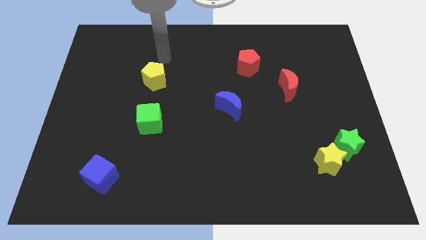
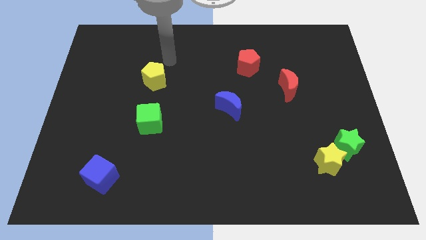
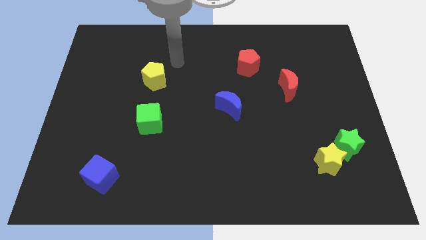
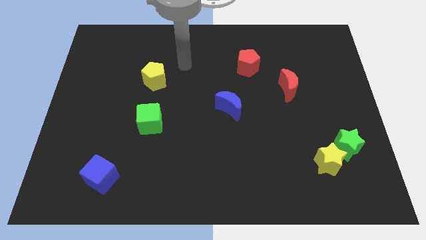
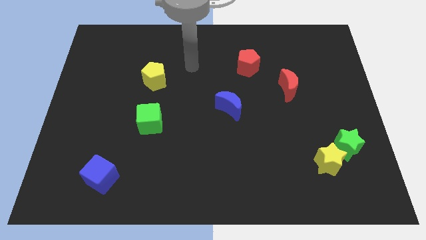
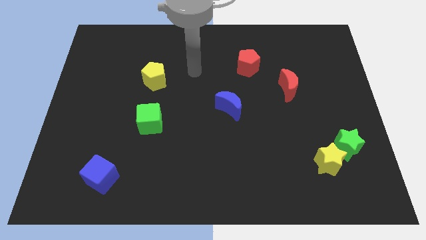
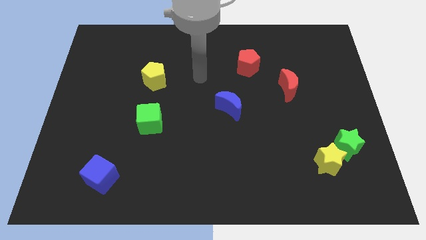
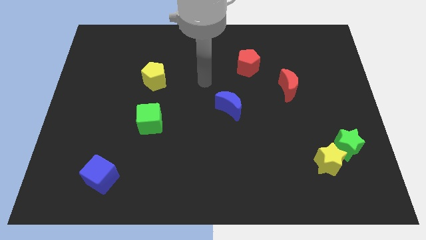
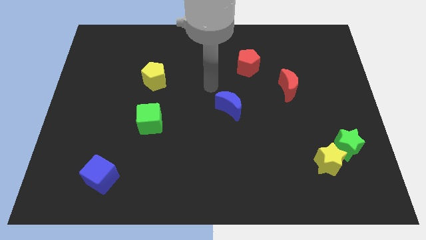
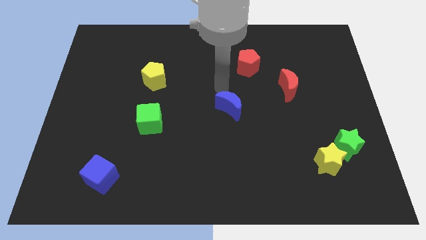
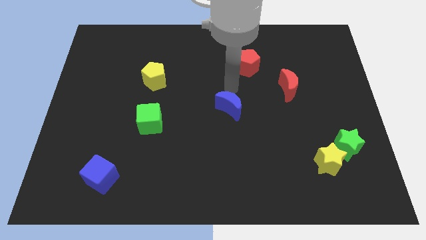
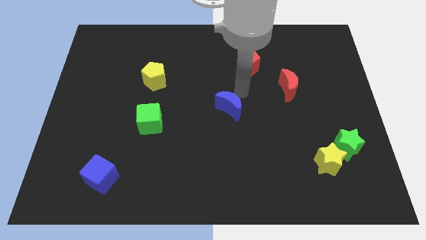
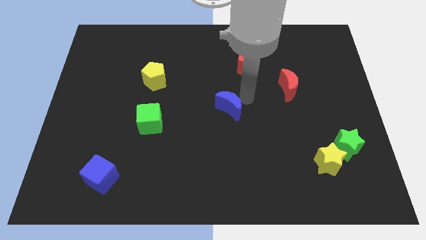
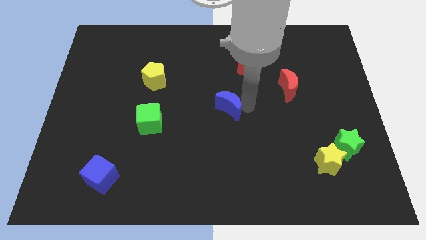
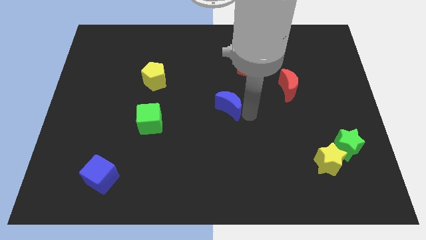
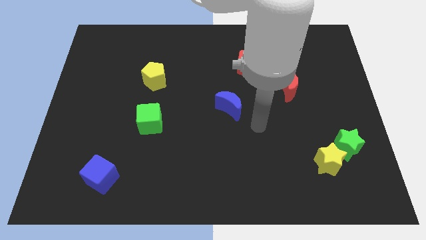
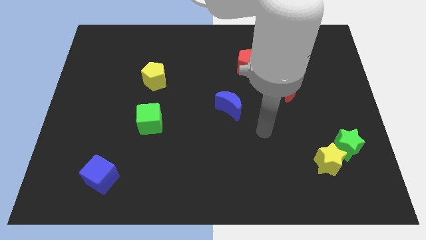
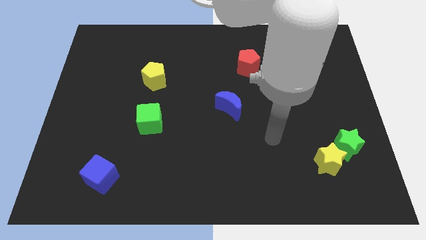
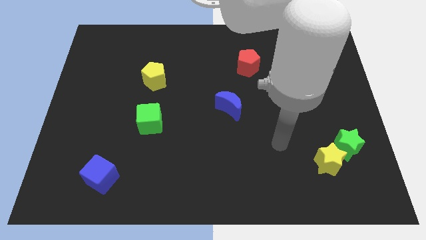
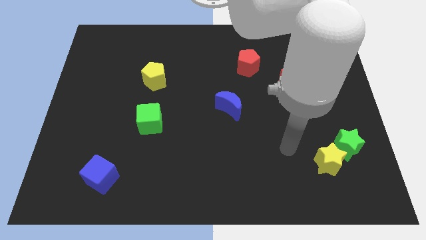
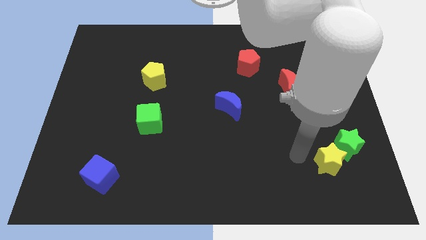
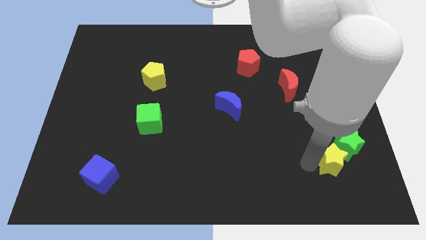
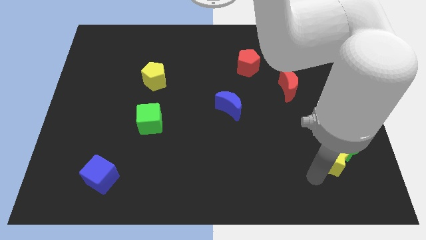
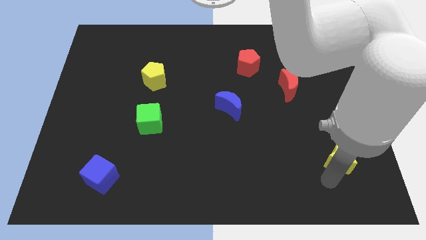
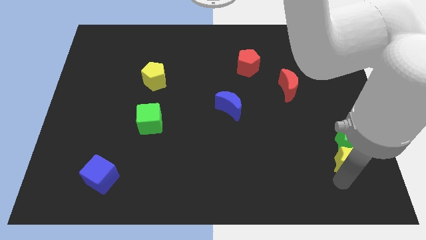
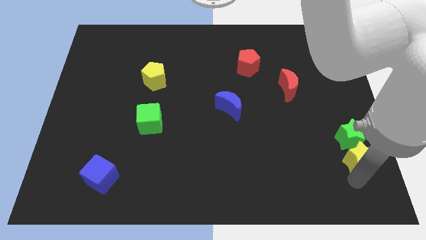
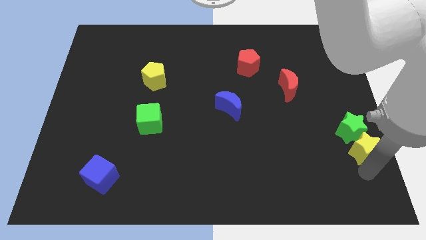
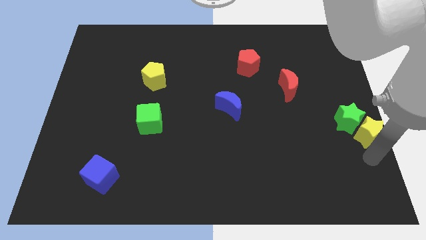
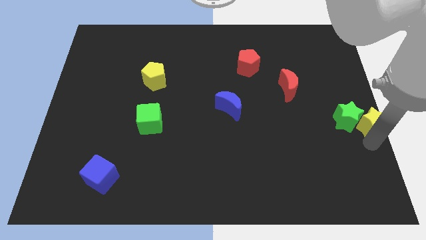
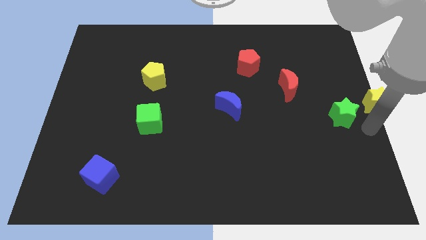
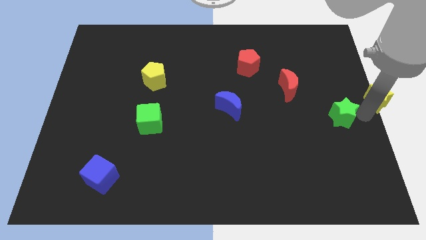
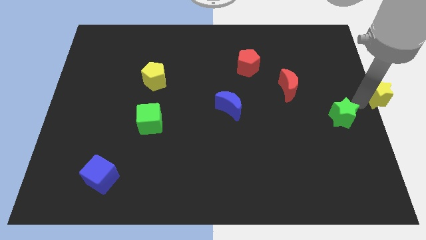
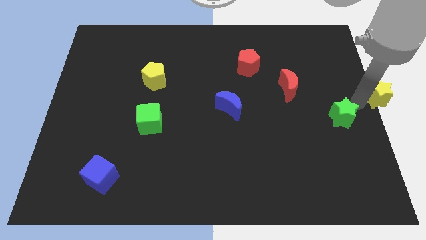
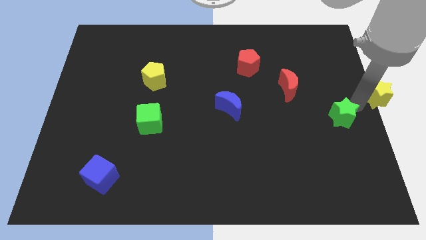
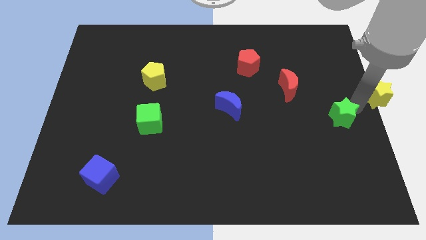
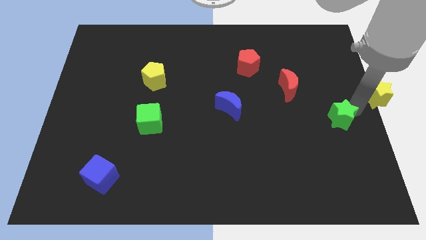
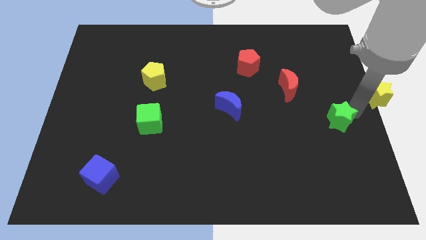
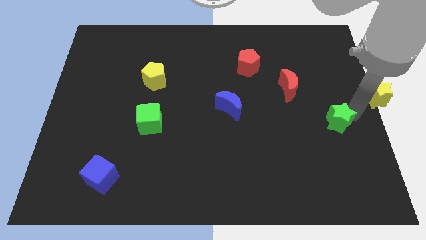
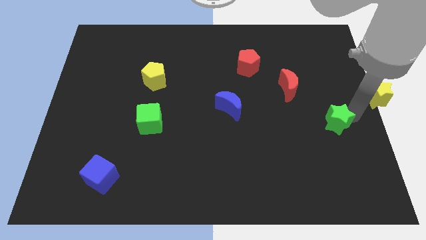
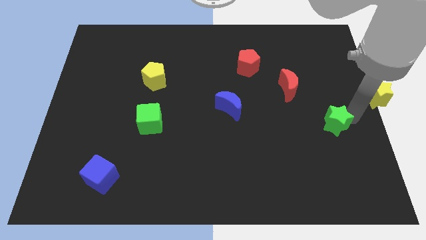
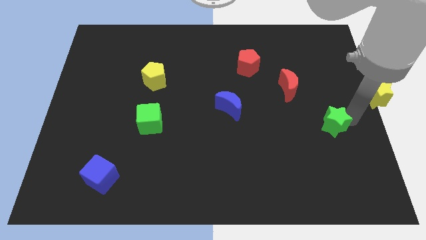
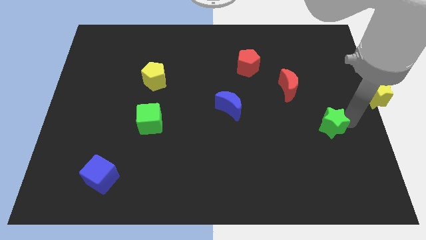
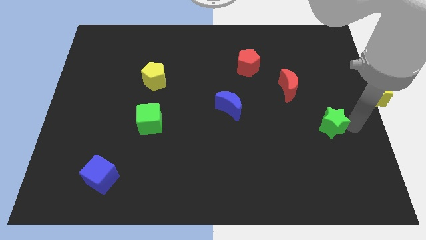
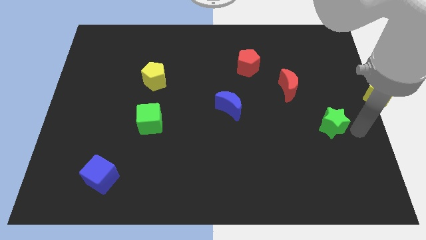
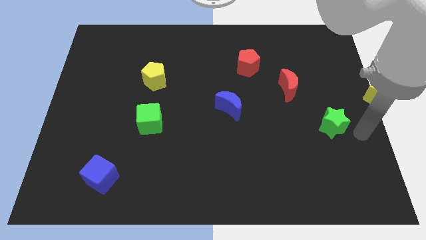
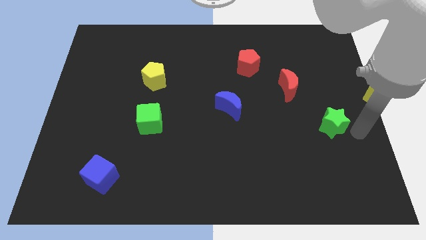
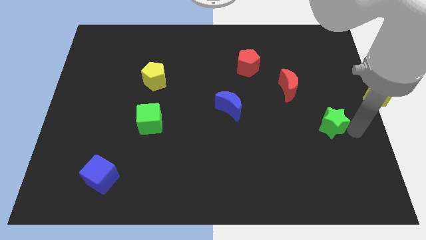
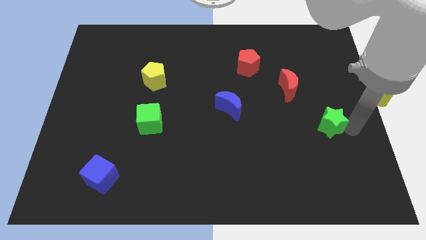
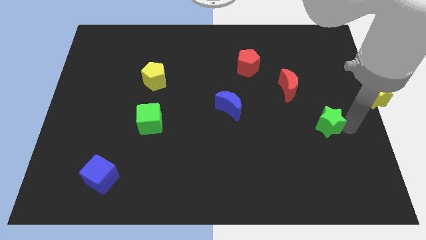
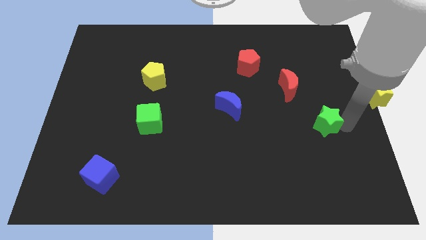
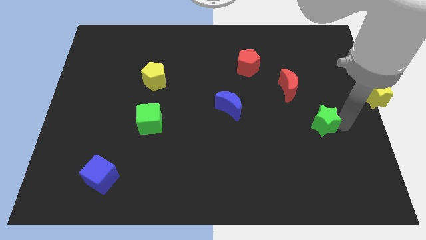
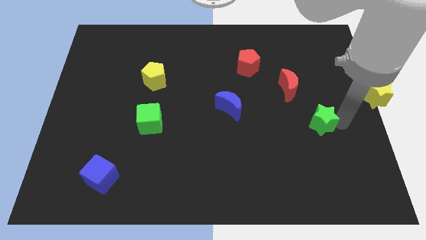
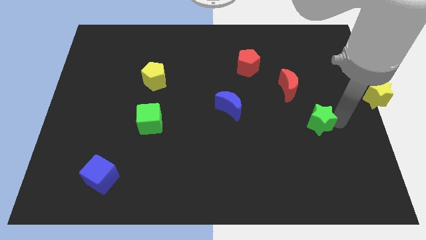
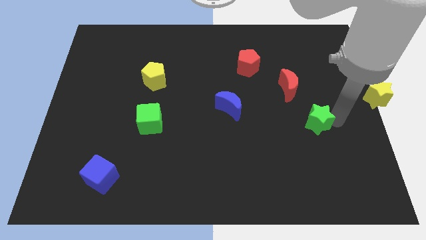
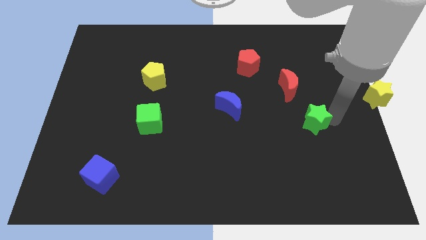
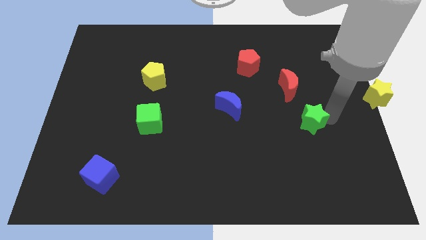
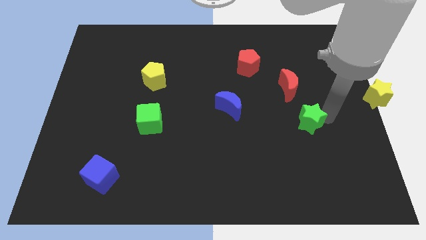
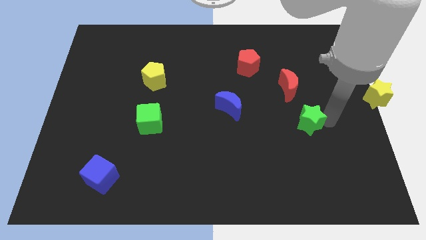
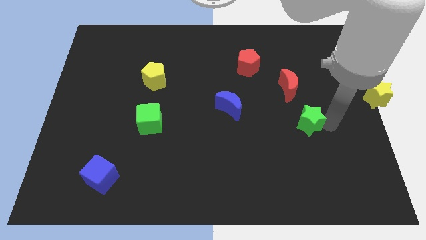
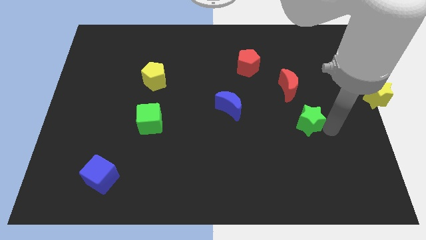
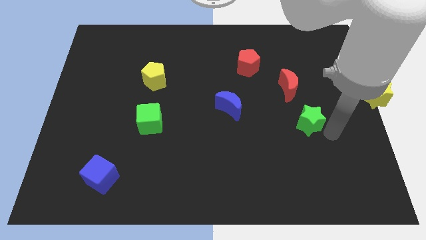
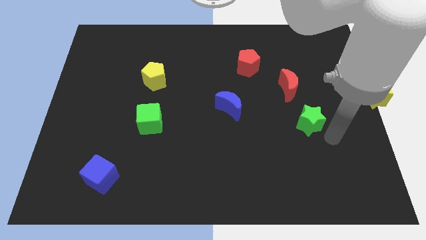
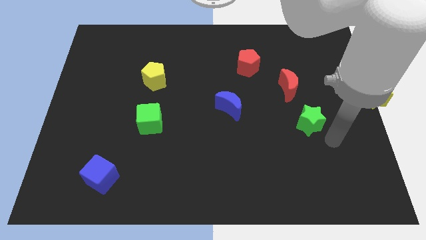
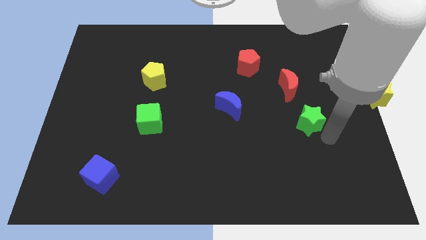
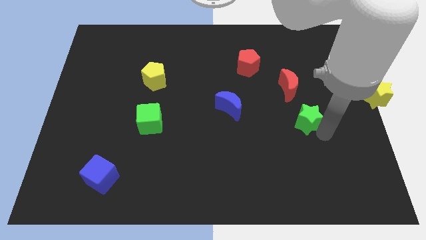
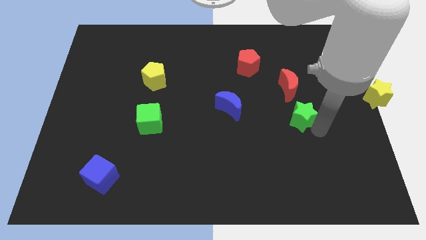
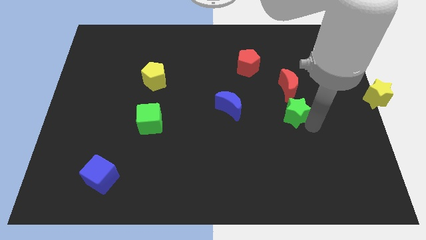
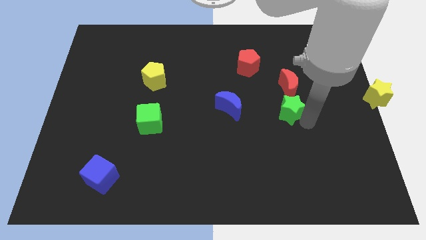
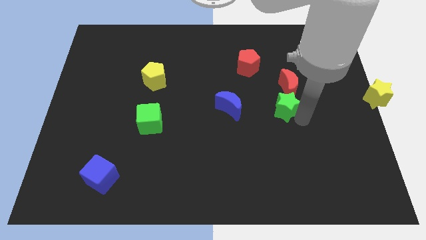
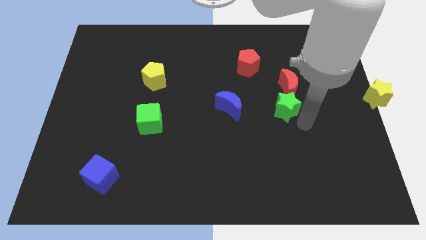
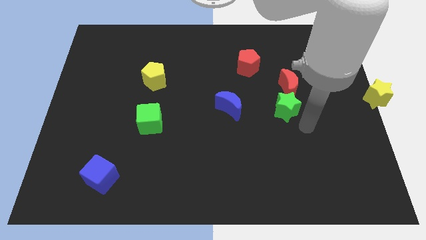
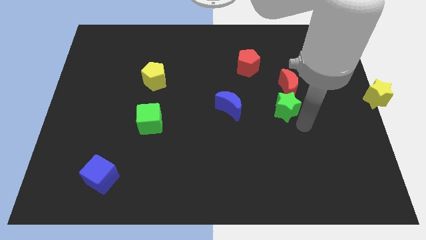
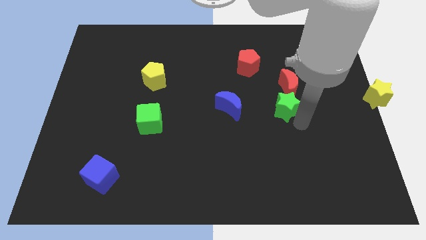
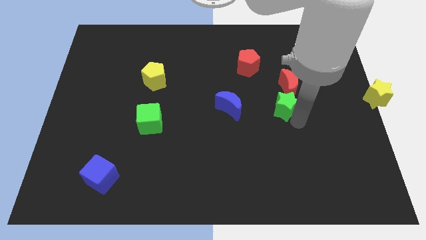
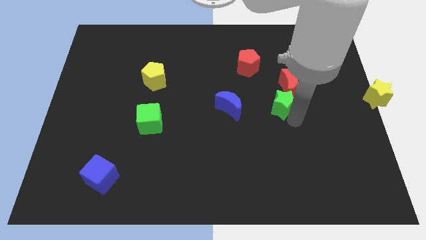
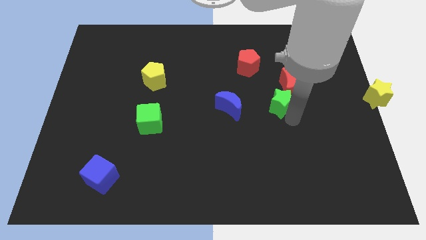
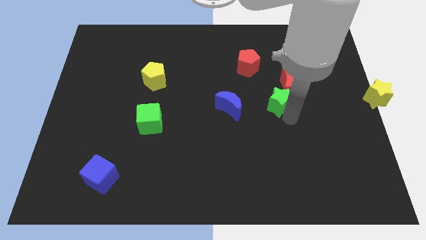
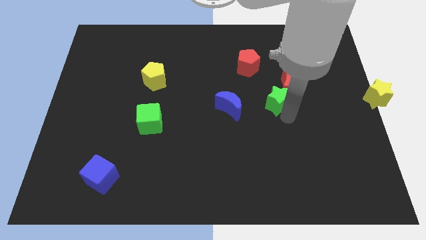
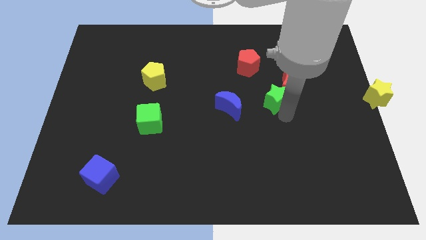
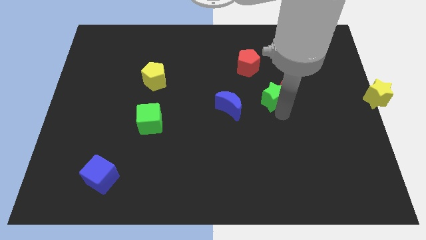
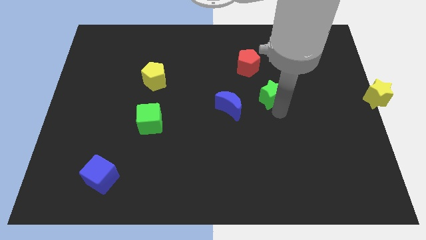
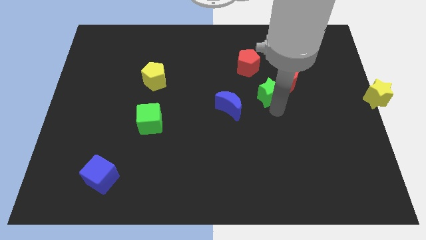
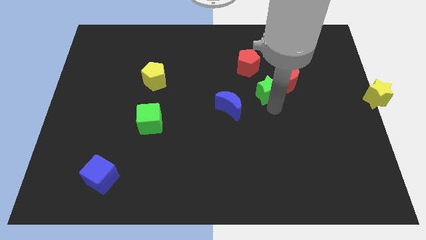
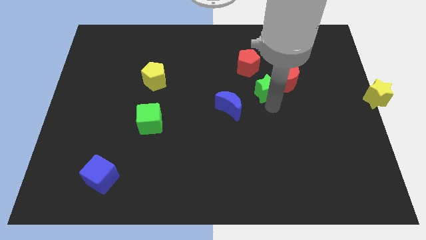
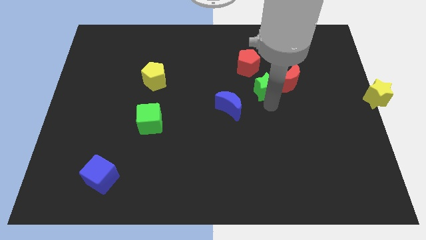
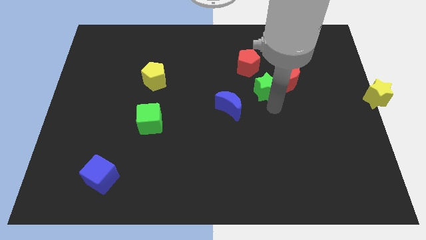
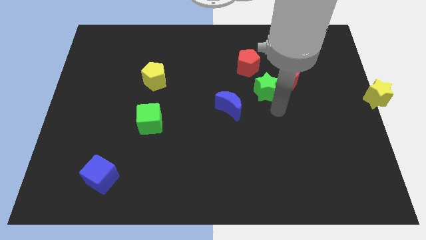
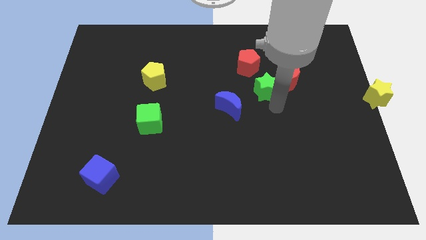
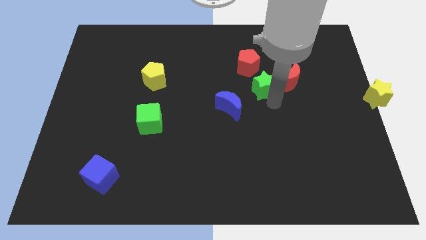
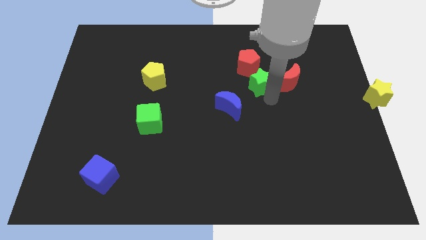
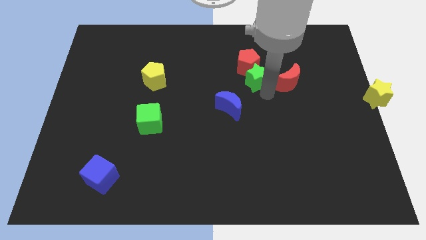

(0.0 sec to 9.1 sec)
move the green star next to the red pentagon
